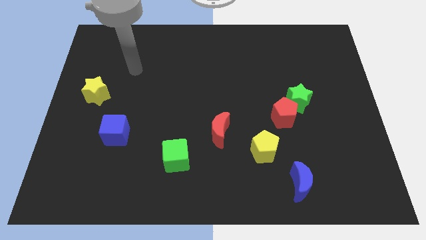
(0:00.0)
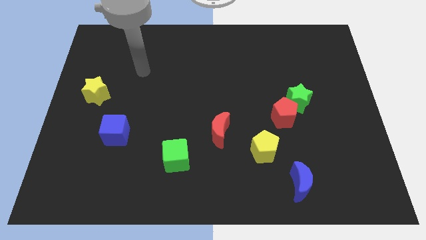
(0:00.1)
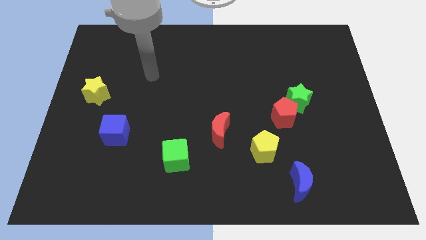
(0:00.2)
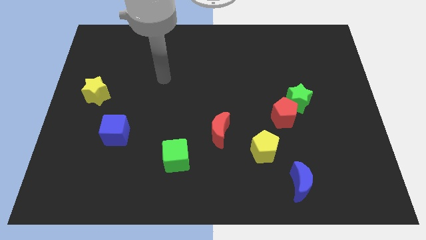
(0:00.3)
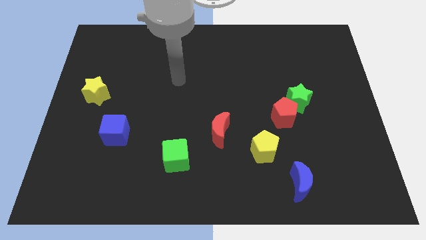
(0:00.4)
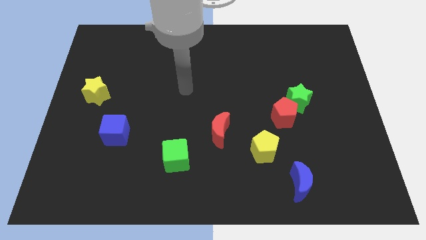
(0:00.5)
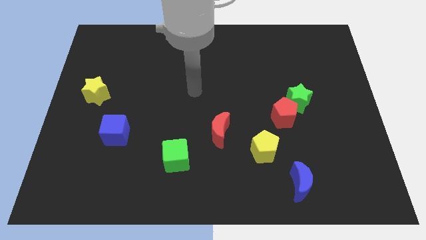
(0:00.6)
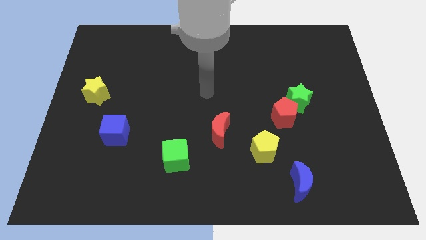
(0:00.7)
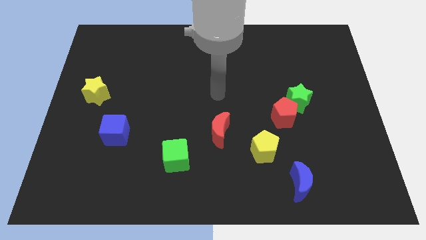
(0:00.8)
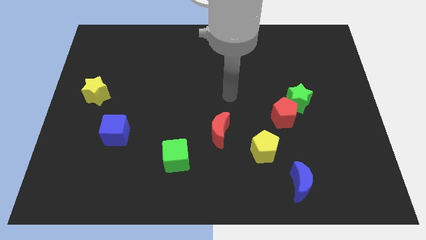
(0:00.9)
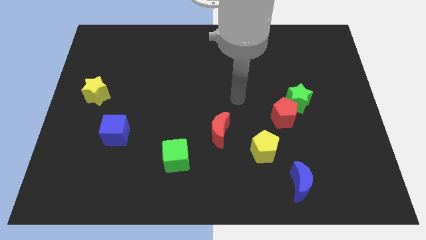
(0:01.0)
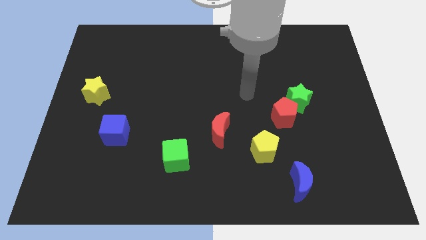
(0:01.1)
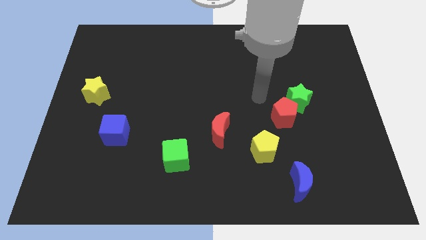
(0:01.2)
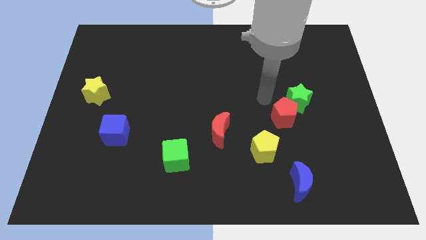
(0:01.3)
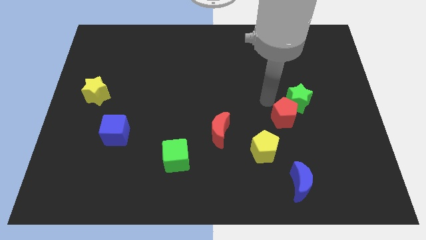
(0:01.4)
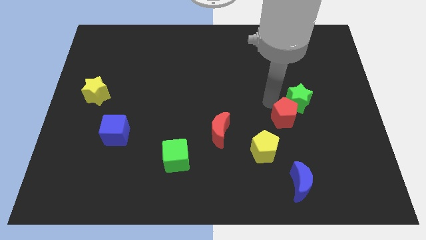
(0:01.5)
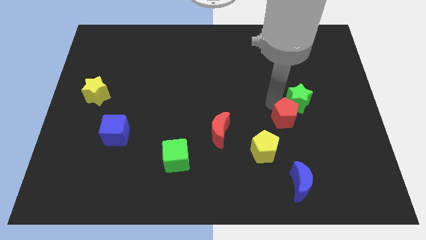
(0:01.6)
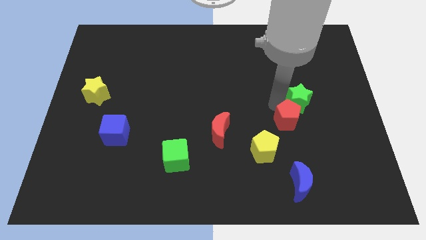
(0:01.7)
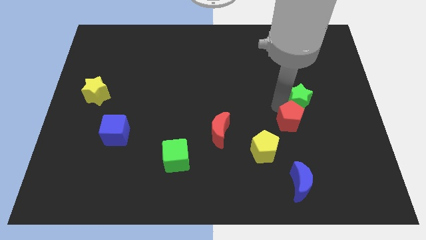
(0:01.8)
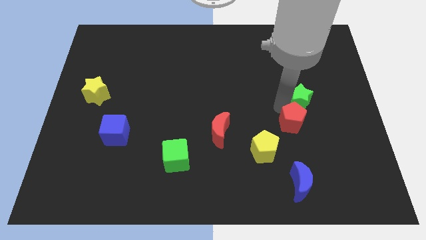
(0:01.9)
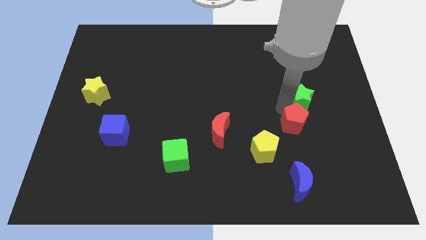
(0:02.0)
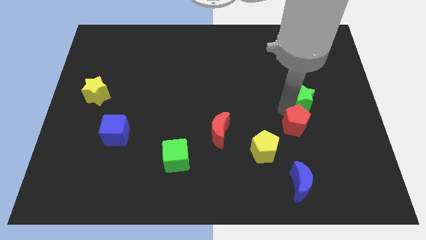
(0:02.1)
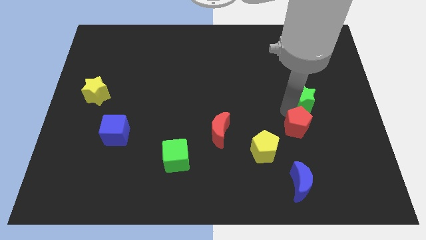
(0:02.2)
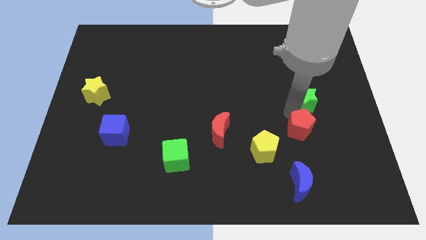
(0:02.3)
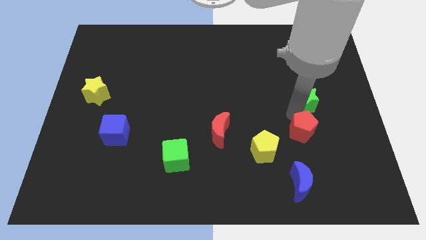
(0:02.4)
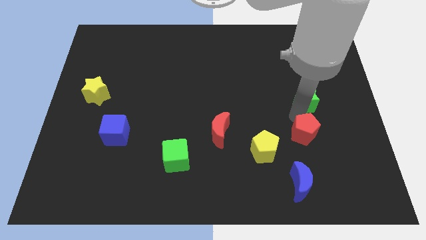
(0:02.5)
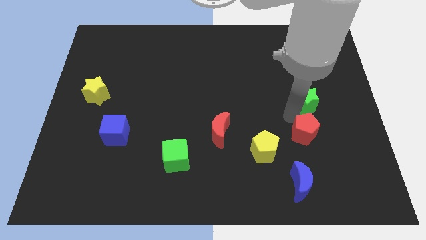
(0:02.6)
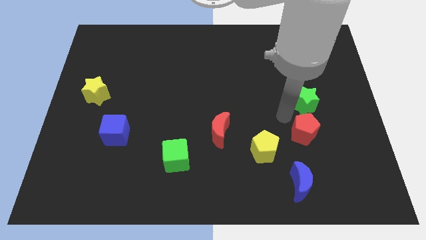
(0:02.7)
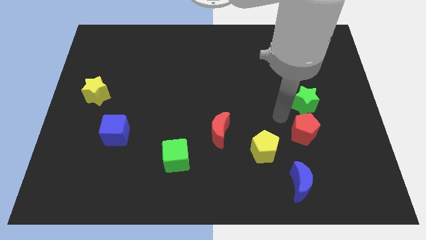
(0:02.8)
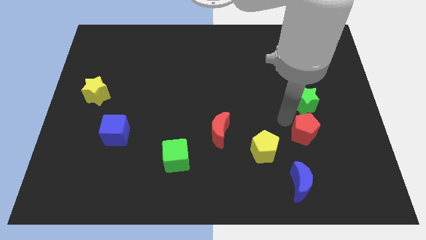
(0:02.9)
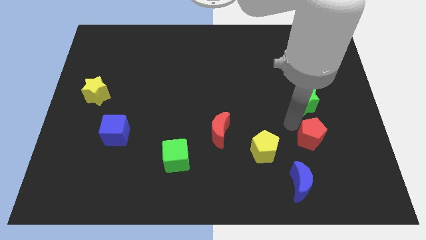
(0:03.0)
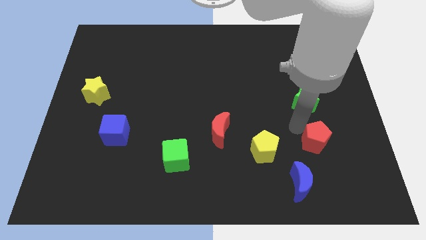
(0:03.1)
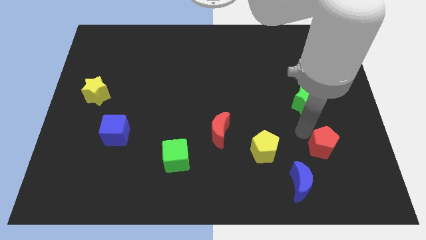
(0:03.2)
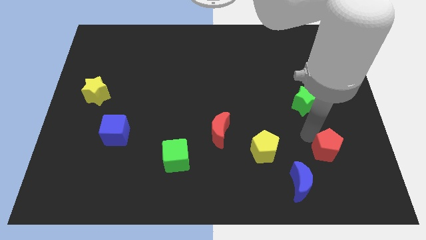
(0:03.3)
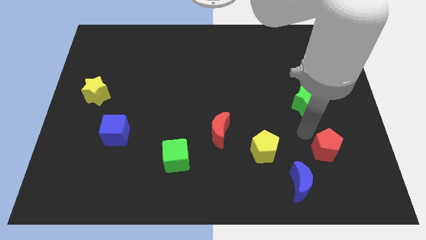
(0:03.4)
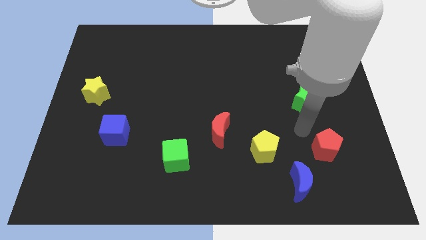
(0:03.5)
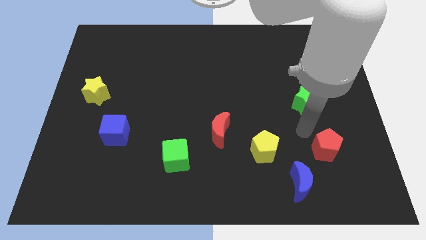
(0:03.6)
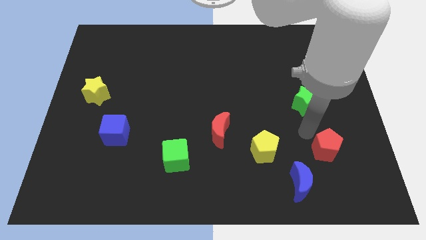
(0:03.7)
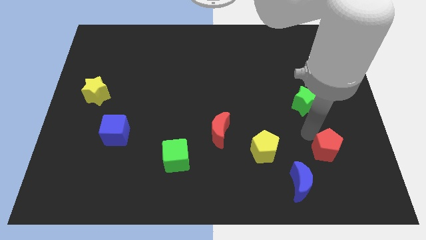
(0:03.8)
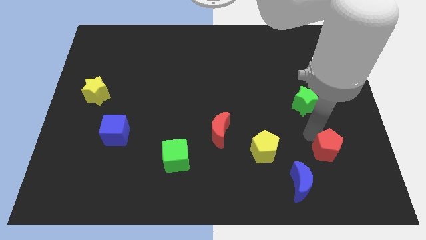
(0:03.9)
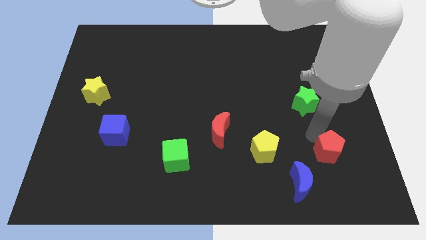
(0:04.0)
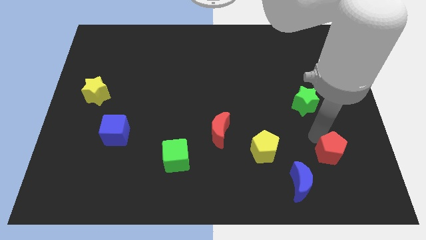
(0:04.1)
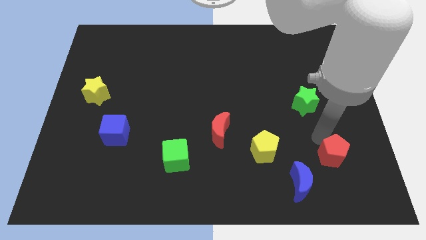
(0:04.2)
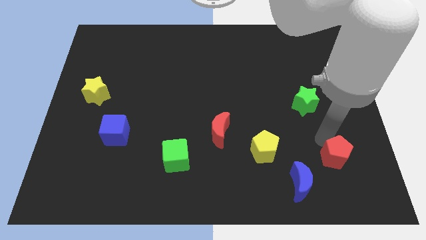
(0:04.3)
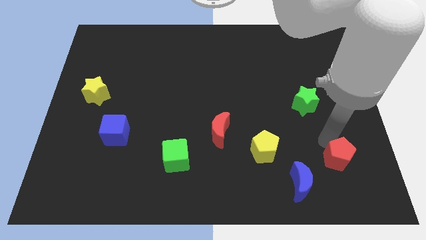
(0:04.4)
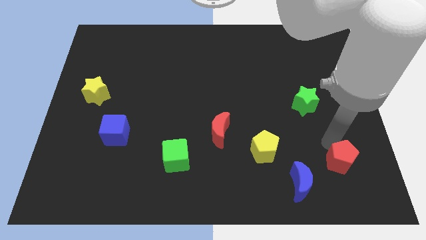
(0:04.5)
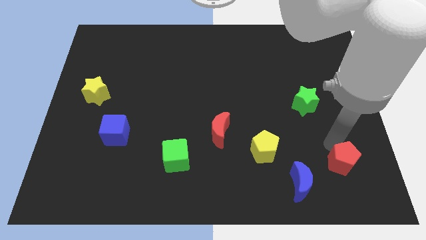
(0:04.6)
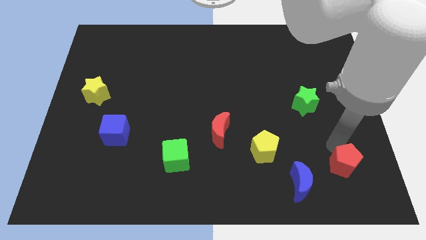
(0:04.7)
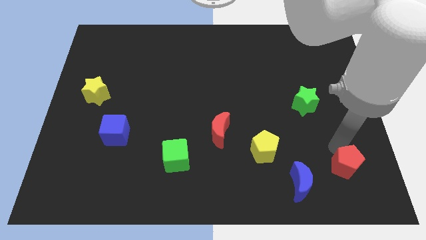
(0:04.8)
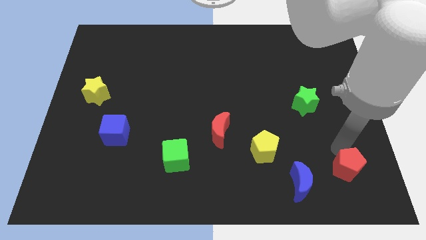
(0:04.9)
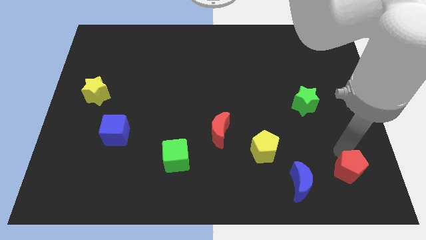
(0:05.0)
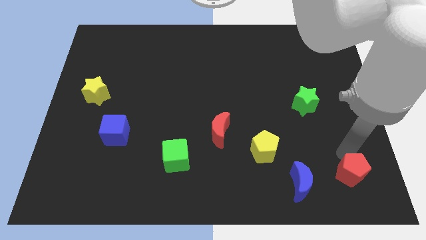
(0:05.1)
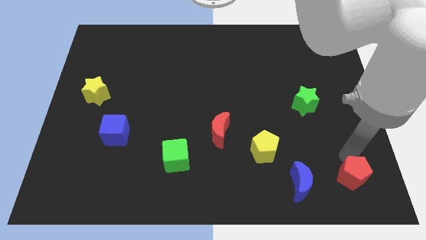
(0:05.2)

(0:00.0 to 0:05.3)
push the red pentagon to the bottom right

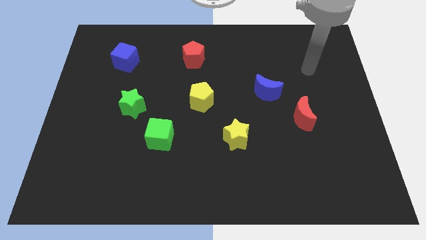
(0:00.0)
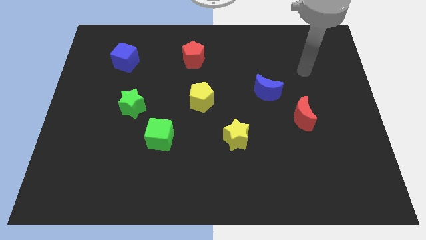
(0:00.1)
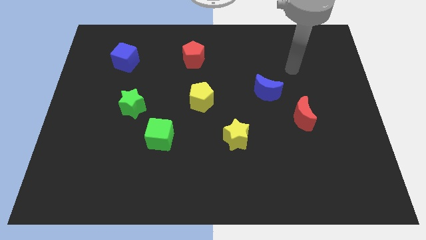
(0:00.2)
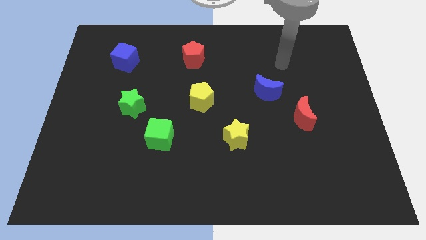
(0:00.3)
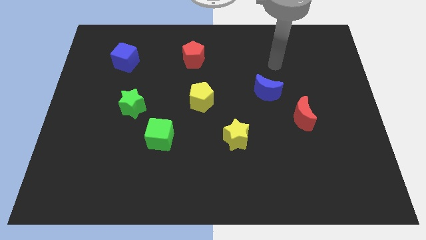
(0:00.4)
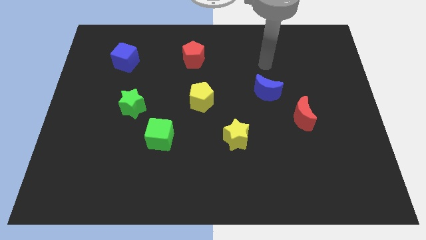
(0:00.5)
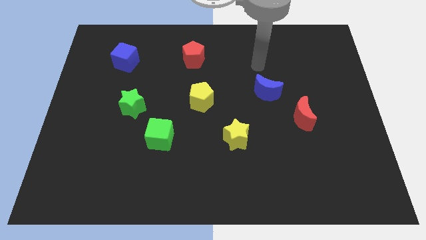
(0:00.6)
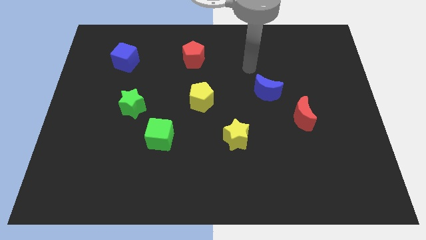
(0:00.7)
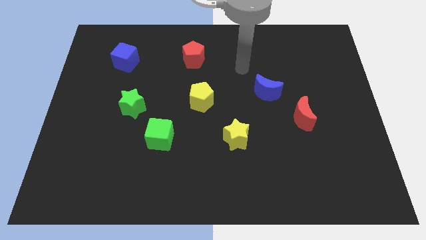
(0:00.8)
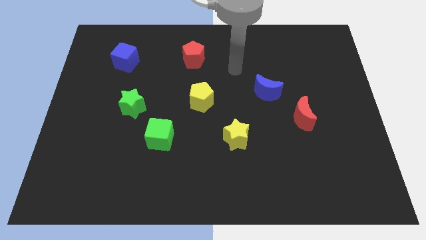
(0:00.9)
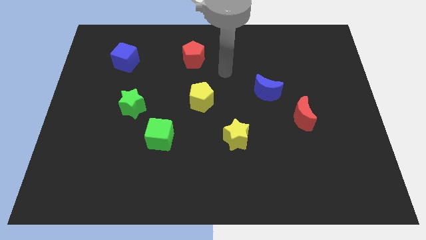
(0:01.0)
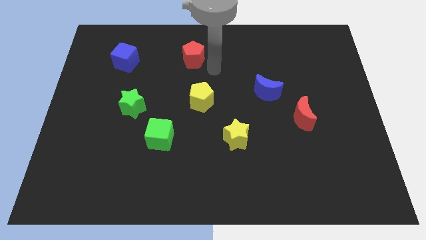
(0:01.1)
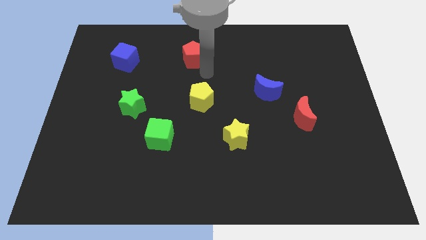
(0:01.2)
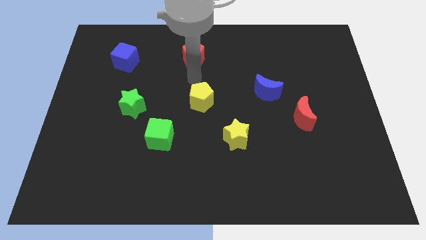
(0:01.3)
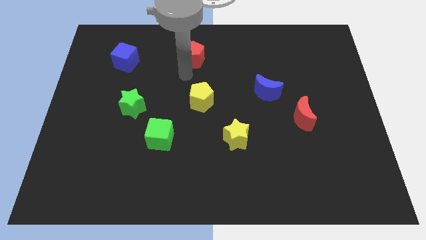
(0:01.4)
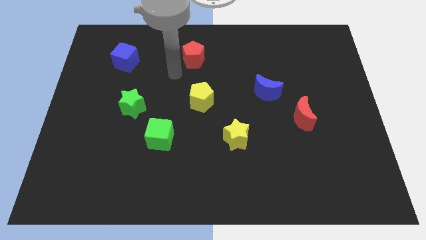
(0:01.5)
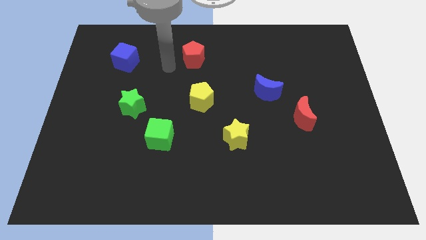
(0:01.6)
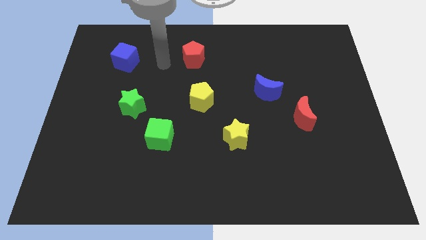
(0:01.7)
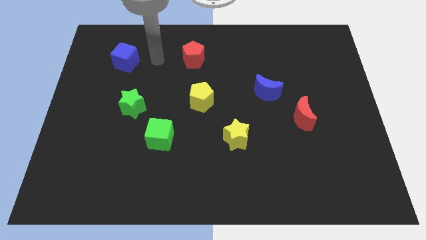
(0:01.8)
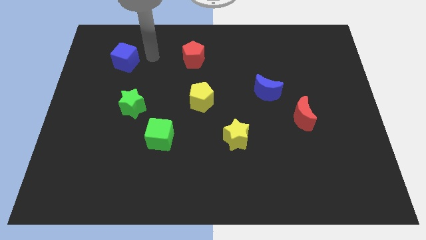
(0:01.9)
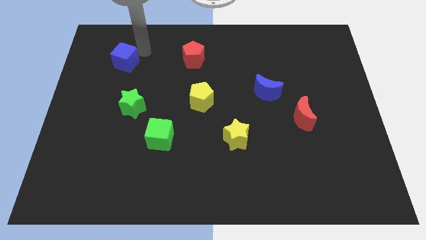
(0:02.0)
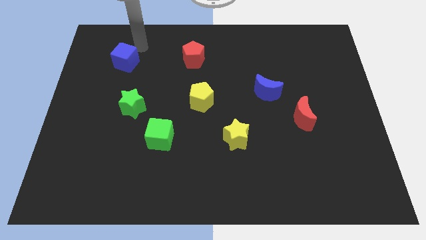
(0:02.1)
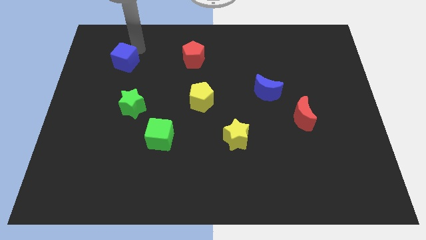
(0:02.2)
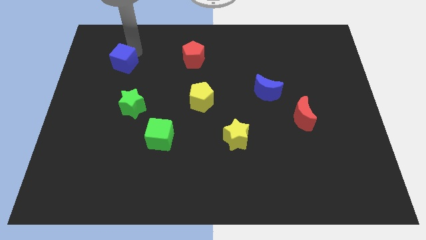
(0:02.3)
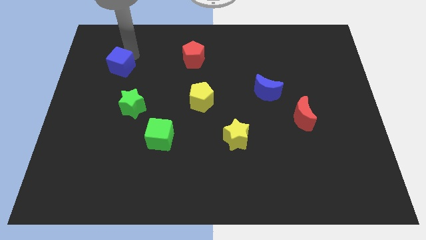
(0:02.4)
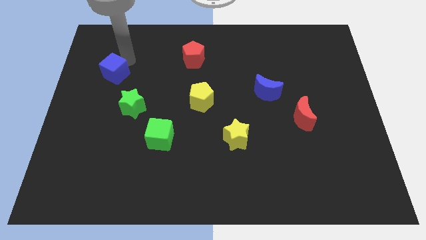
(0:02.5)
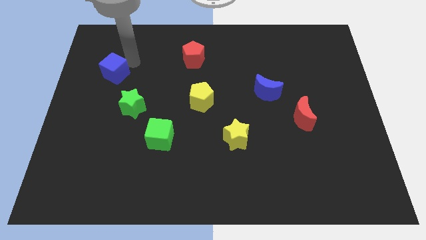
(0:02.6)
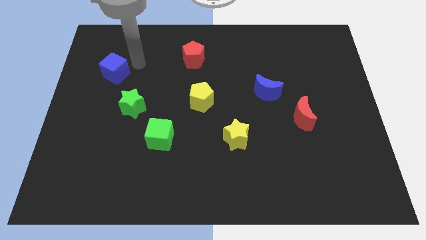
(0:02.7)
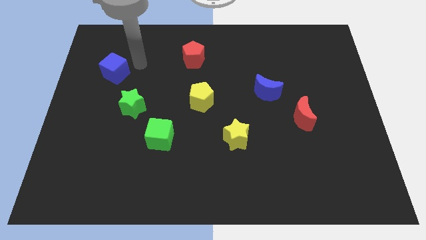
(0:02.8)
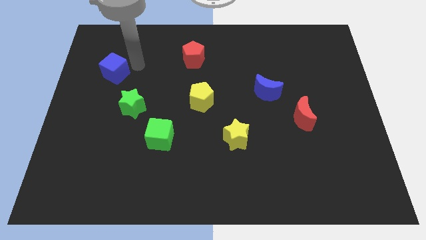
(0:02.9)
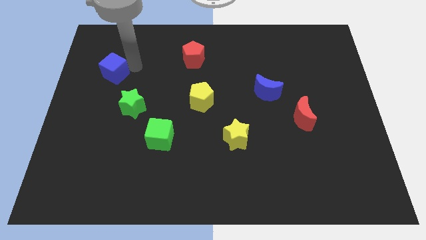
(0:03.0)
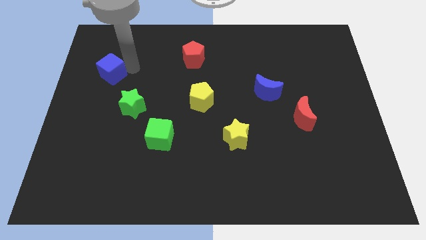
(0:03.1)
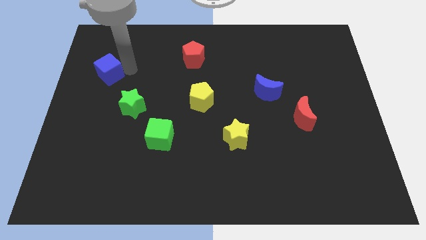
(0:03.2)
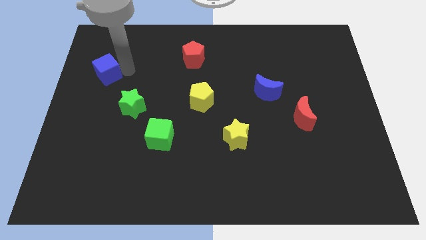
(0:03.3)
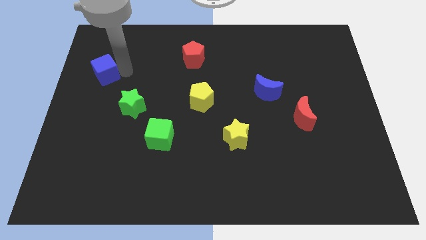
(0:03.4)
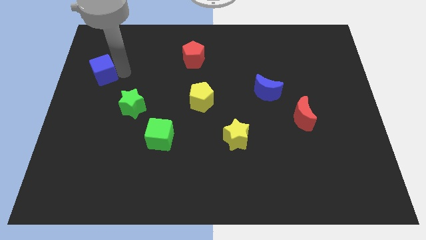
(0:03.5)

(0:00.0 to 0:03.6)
slide the blue cube to the center left
